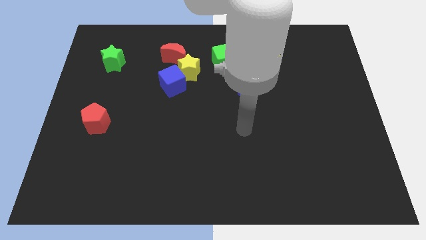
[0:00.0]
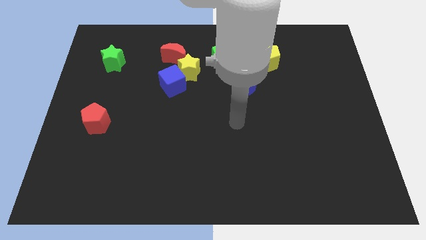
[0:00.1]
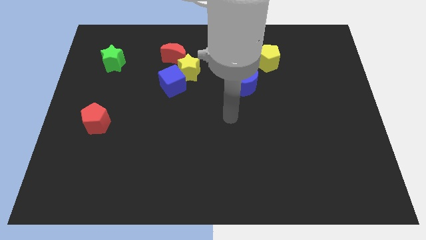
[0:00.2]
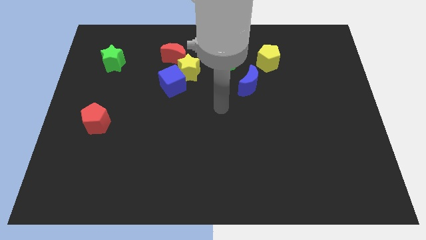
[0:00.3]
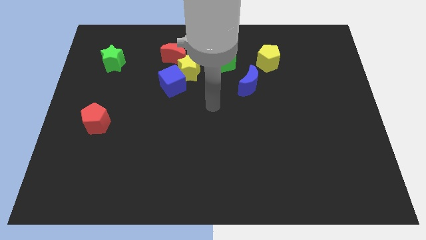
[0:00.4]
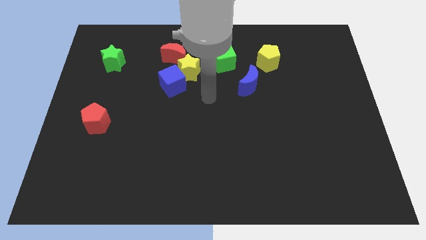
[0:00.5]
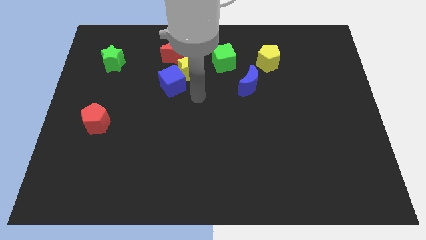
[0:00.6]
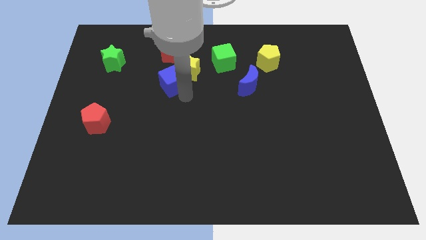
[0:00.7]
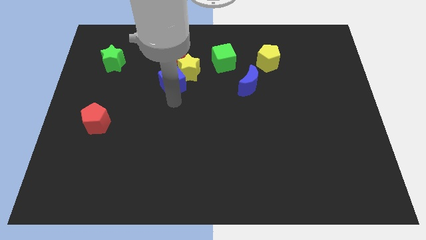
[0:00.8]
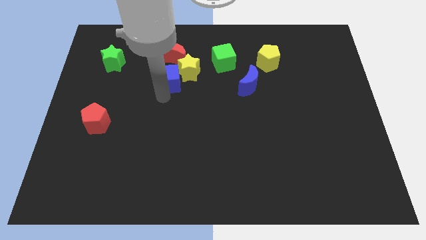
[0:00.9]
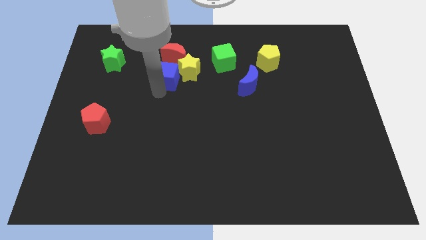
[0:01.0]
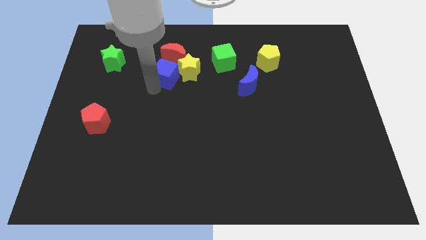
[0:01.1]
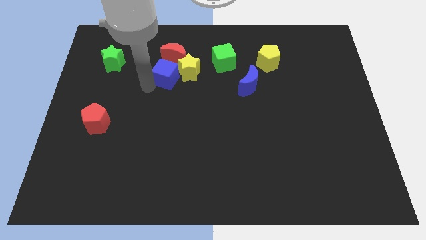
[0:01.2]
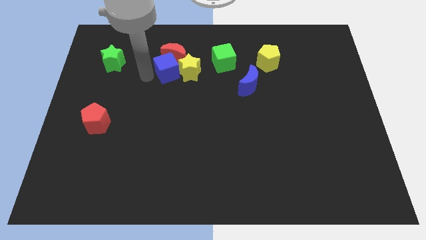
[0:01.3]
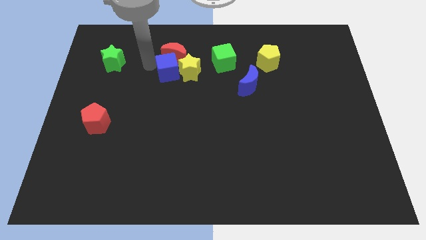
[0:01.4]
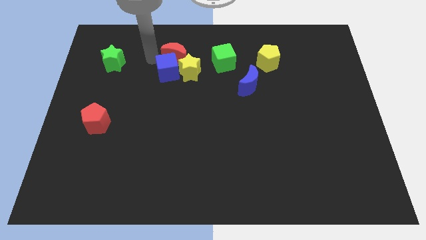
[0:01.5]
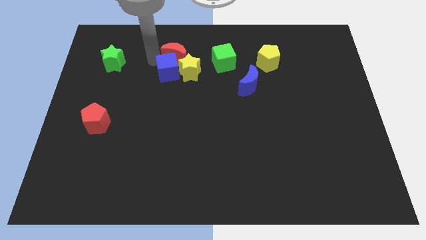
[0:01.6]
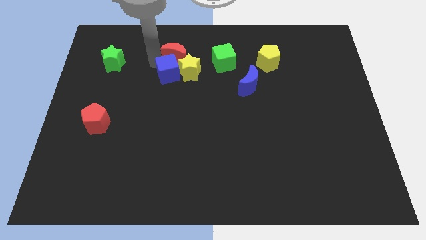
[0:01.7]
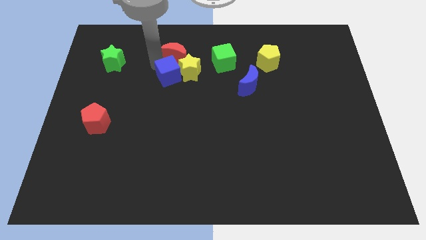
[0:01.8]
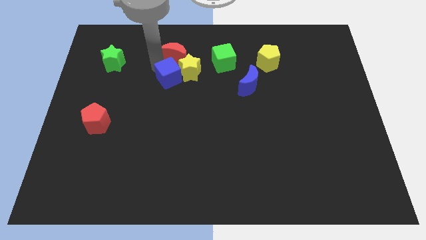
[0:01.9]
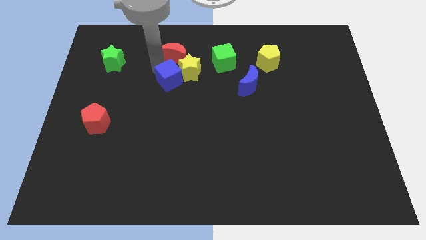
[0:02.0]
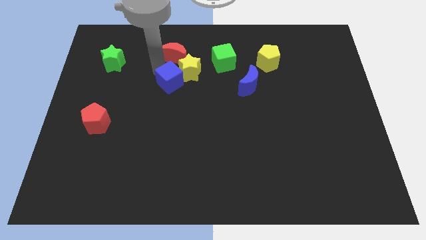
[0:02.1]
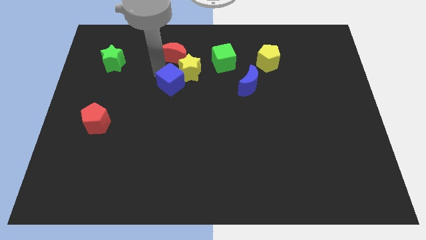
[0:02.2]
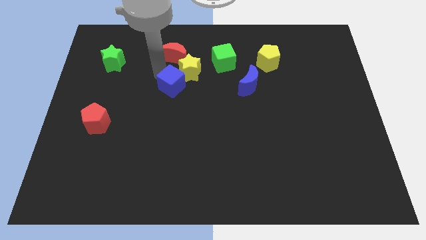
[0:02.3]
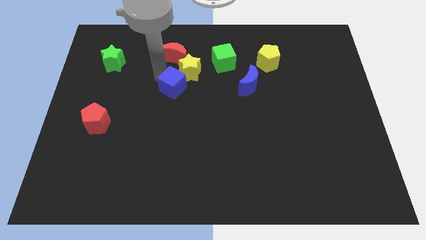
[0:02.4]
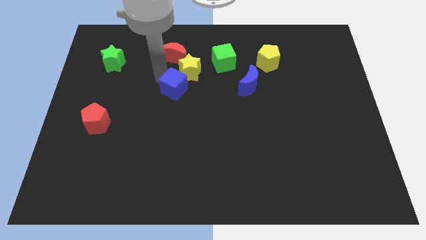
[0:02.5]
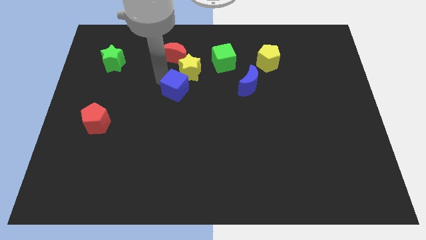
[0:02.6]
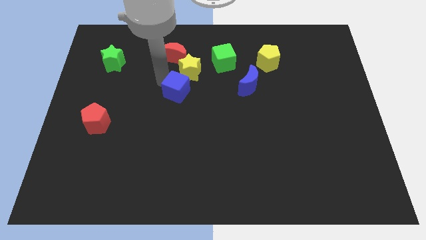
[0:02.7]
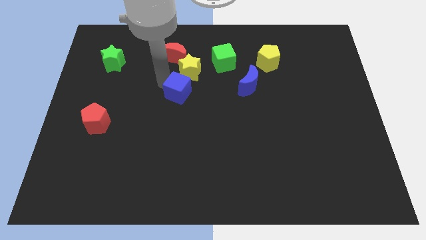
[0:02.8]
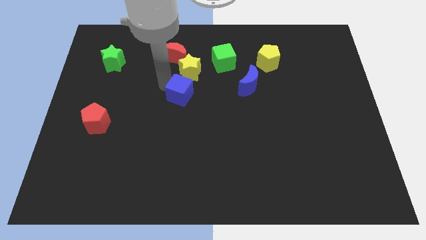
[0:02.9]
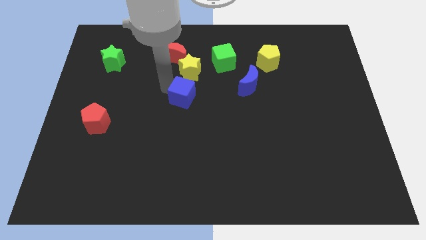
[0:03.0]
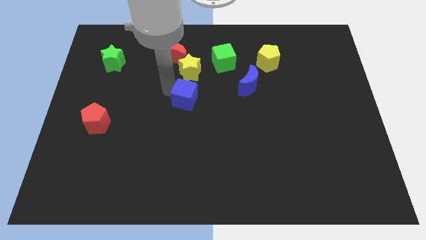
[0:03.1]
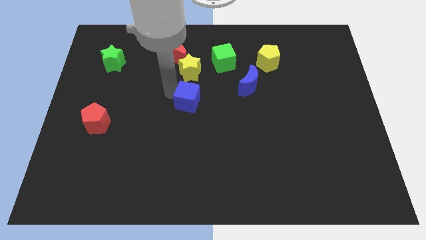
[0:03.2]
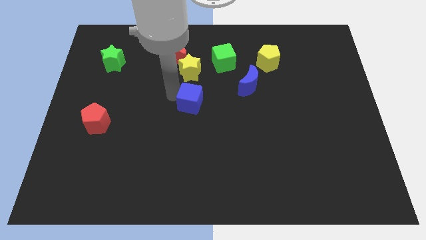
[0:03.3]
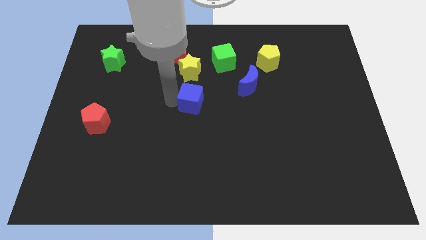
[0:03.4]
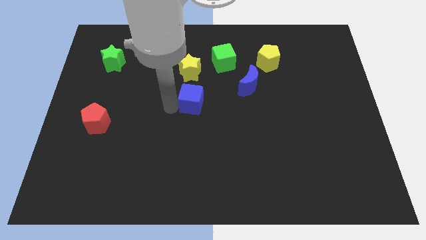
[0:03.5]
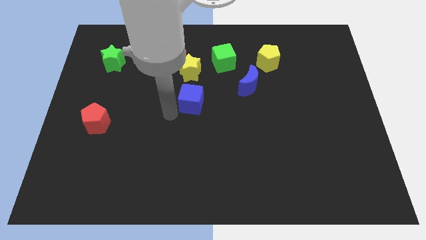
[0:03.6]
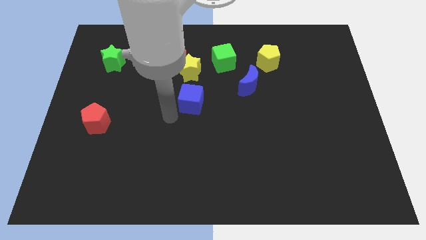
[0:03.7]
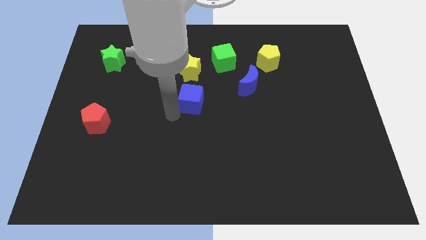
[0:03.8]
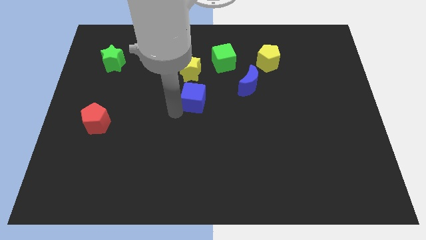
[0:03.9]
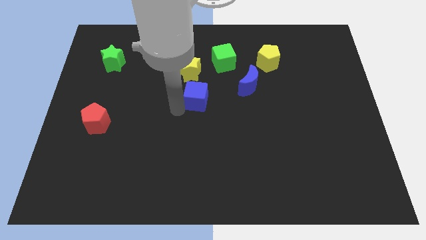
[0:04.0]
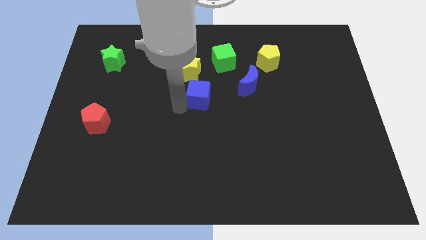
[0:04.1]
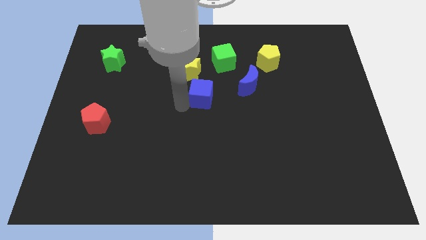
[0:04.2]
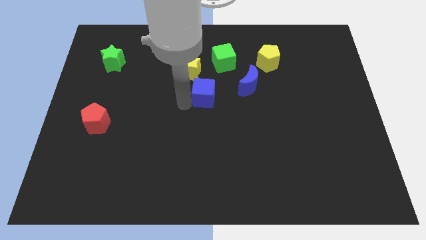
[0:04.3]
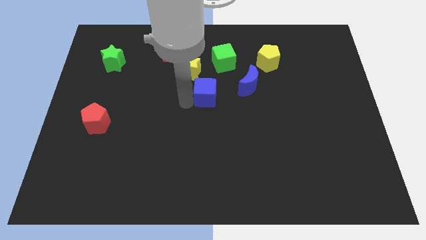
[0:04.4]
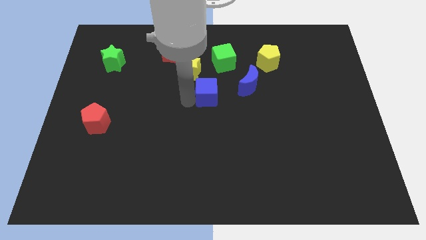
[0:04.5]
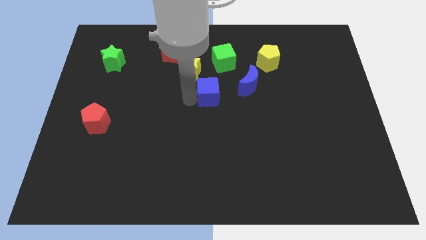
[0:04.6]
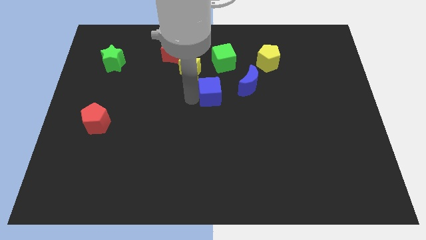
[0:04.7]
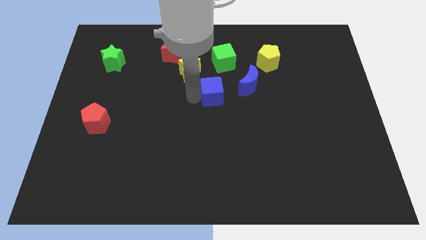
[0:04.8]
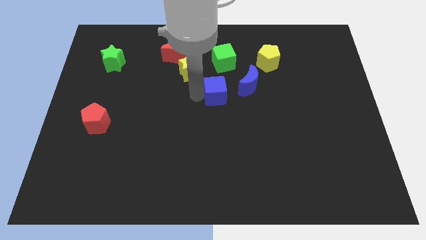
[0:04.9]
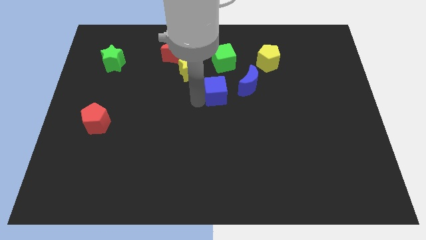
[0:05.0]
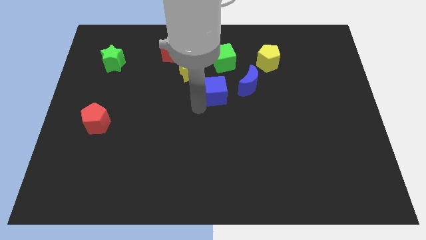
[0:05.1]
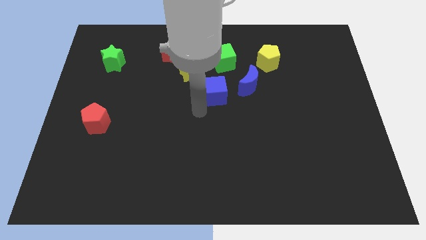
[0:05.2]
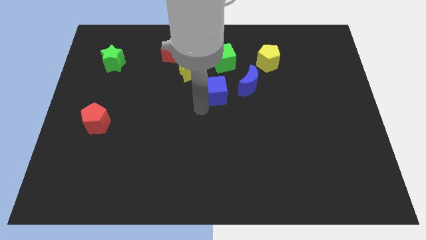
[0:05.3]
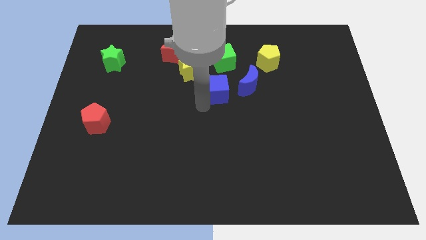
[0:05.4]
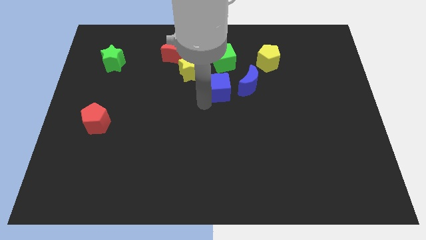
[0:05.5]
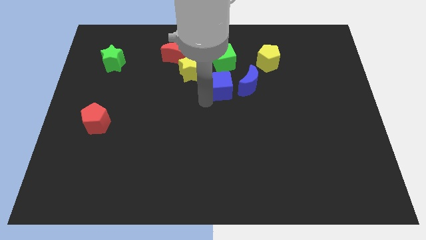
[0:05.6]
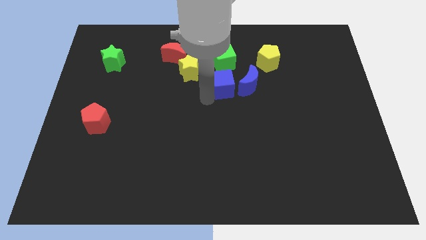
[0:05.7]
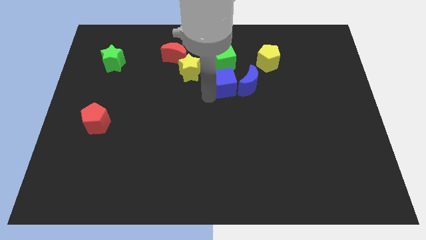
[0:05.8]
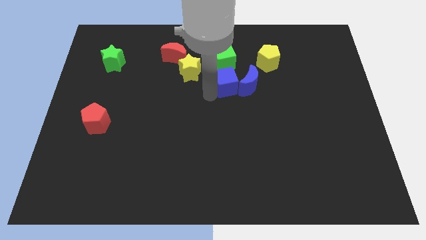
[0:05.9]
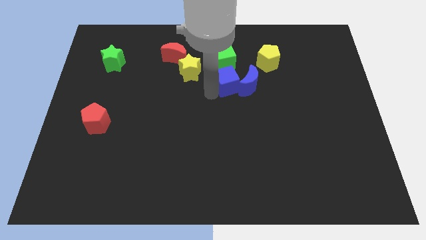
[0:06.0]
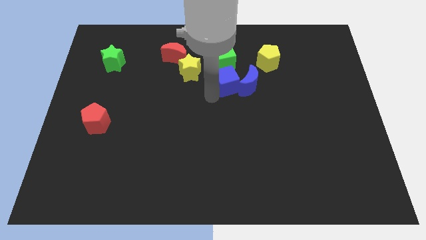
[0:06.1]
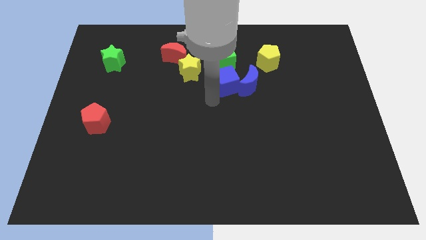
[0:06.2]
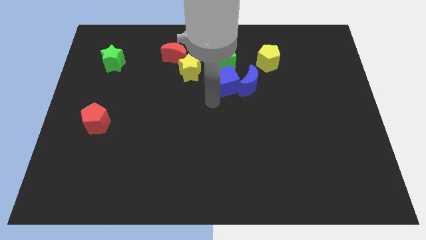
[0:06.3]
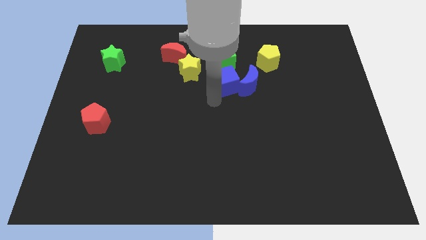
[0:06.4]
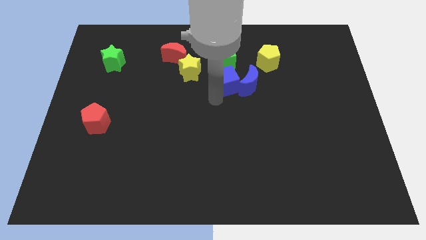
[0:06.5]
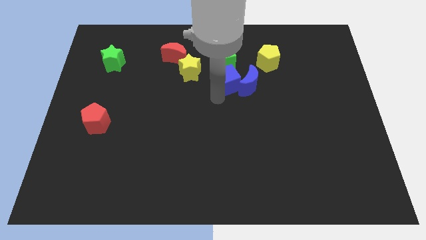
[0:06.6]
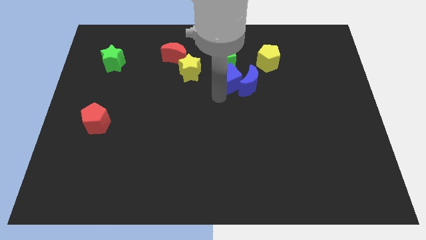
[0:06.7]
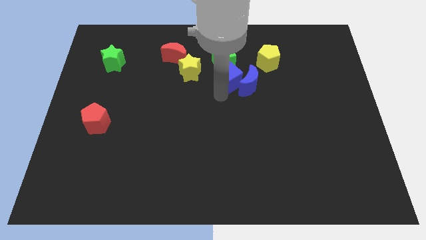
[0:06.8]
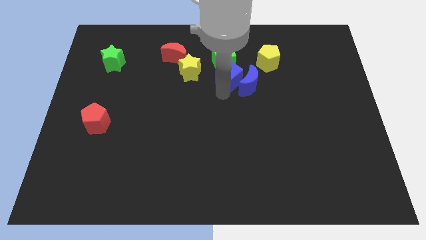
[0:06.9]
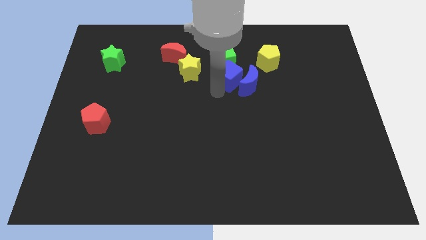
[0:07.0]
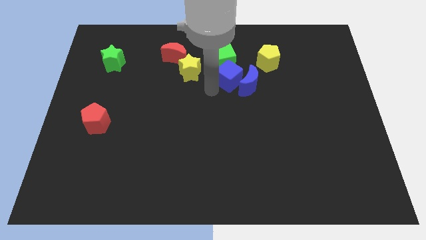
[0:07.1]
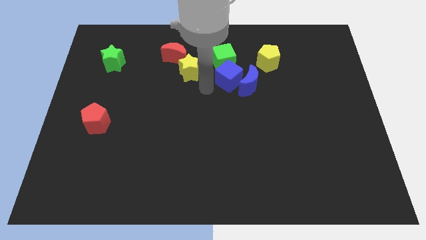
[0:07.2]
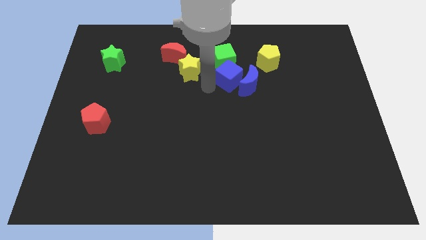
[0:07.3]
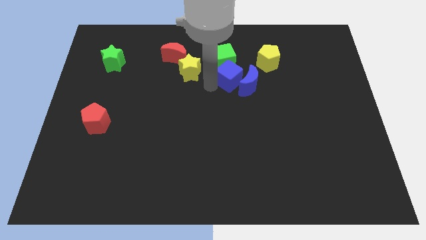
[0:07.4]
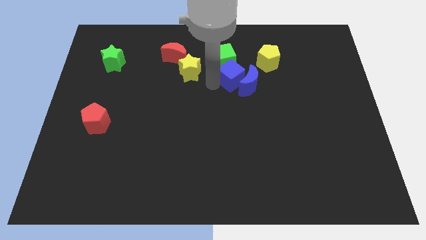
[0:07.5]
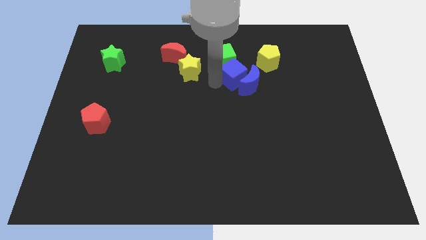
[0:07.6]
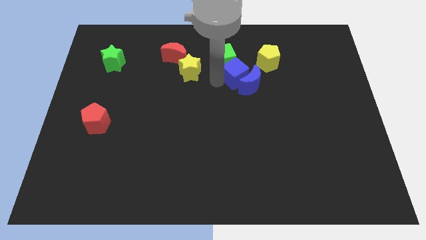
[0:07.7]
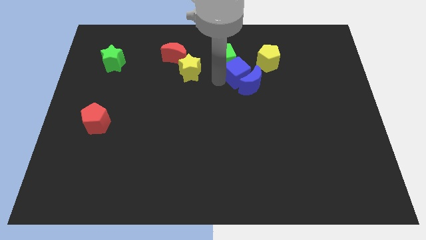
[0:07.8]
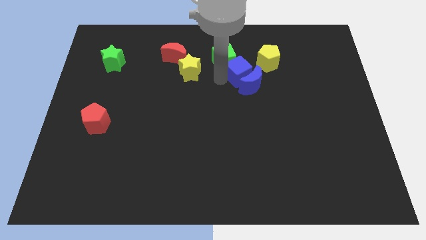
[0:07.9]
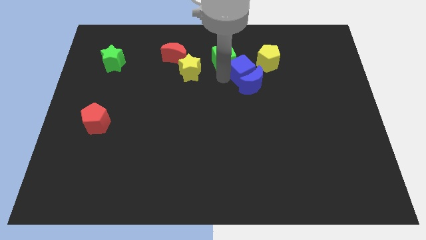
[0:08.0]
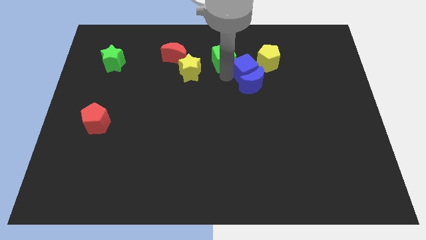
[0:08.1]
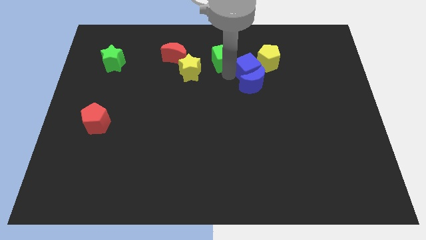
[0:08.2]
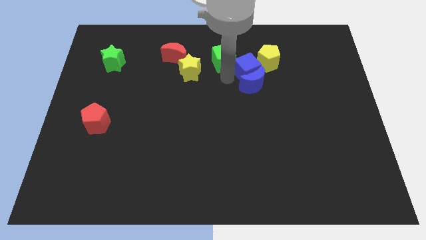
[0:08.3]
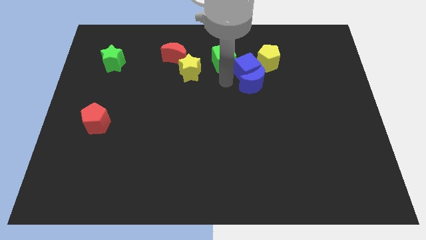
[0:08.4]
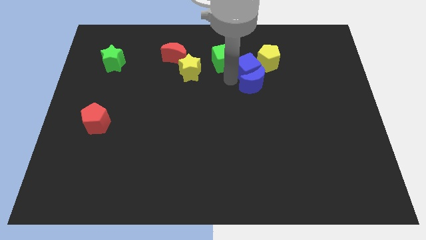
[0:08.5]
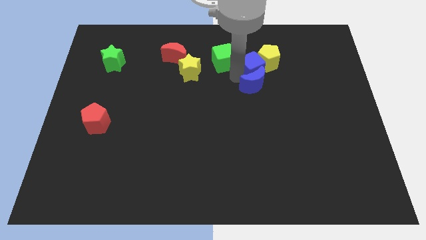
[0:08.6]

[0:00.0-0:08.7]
put the blue cube next to the yellow pentagon
